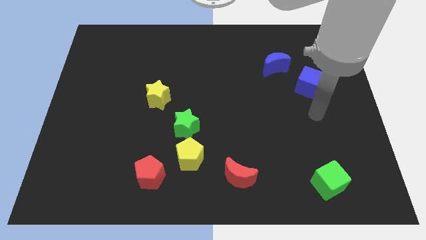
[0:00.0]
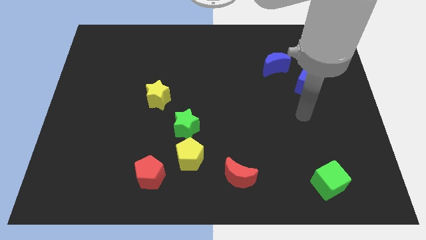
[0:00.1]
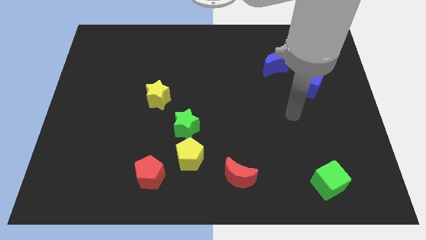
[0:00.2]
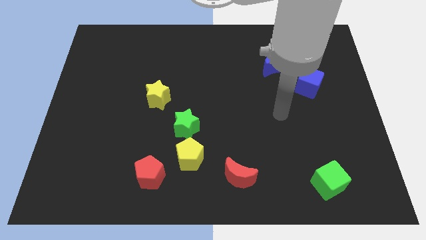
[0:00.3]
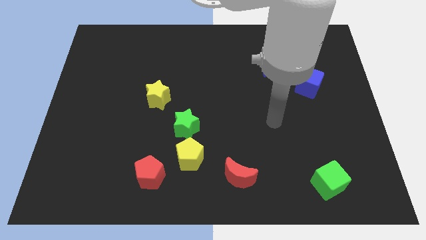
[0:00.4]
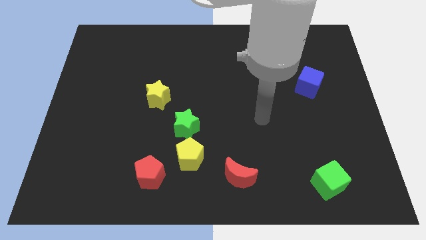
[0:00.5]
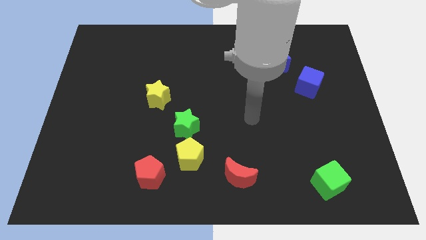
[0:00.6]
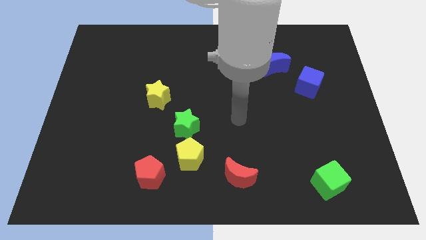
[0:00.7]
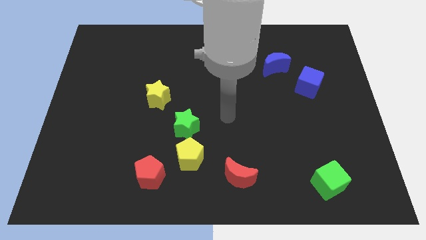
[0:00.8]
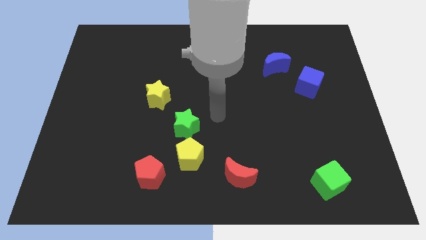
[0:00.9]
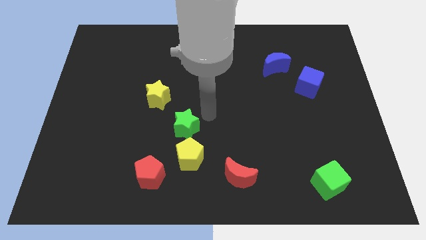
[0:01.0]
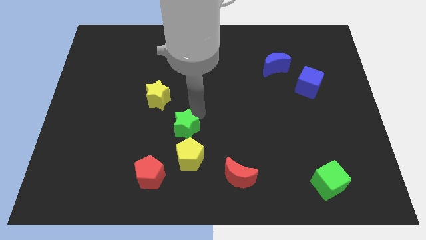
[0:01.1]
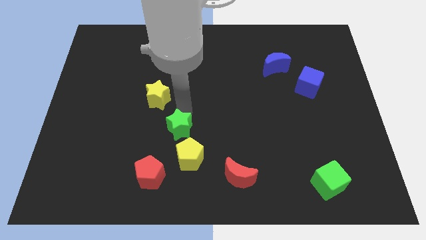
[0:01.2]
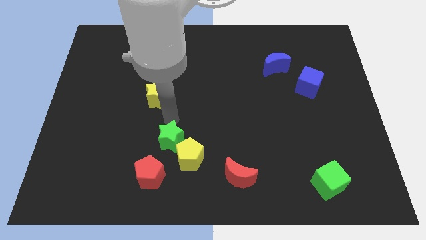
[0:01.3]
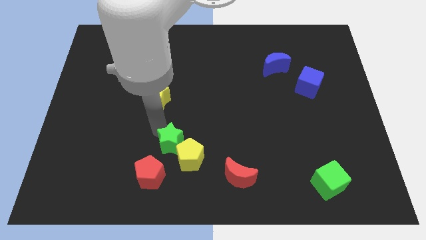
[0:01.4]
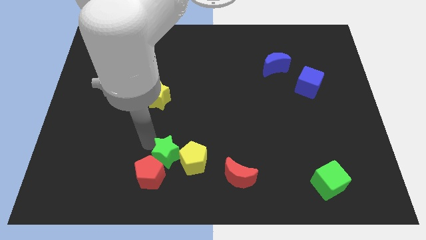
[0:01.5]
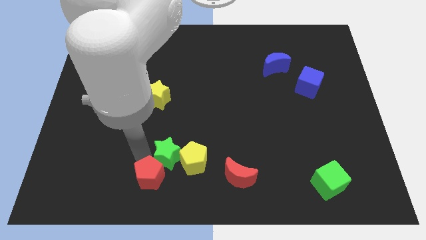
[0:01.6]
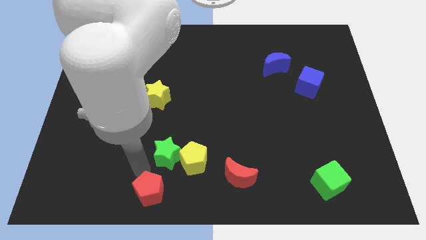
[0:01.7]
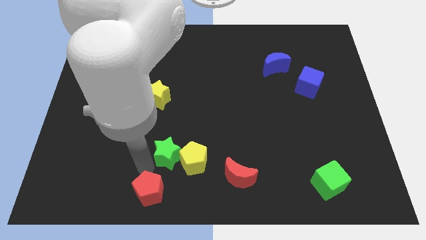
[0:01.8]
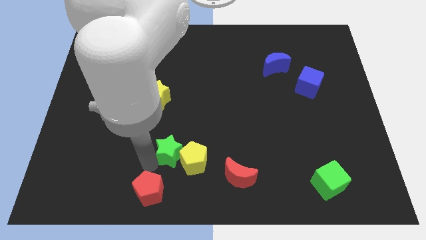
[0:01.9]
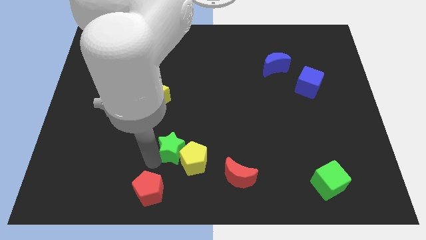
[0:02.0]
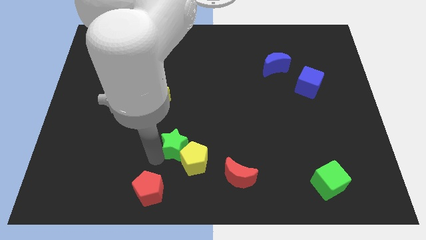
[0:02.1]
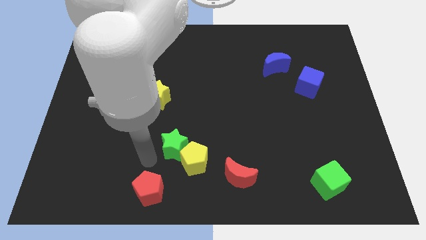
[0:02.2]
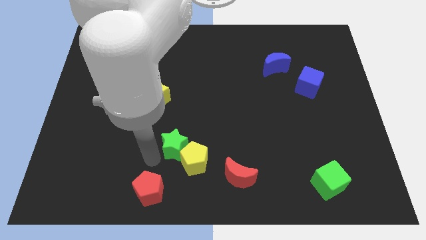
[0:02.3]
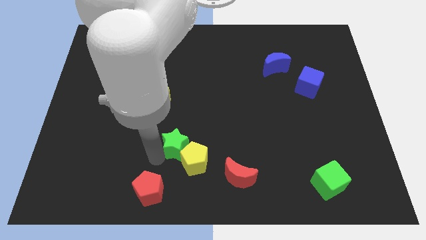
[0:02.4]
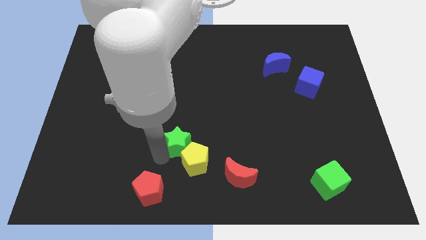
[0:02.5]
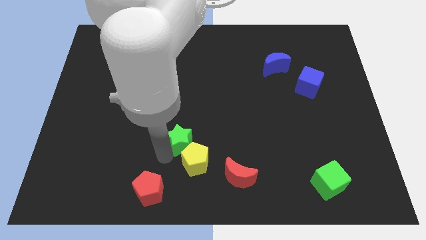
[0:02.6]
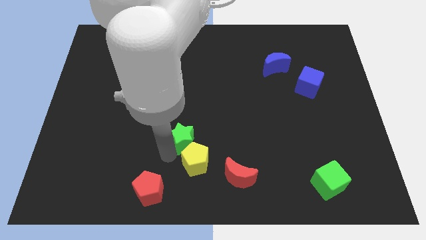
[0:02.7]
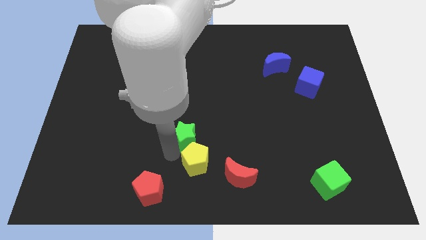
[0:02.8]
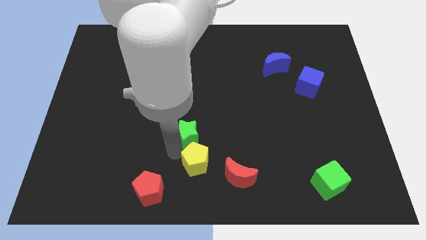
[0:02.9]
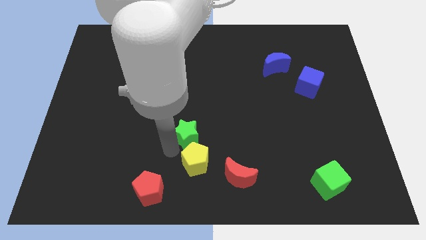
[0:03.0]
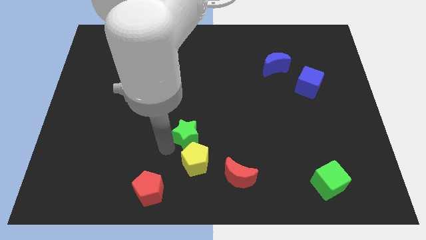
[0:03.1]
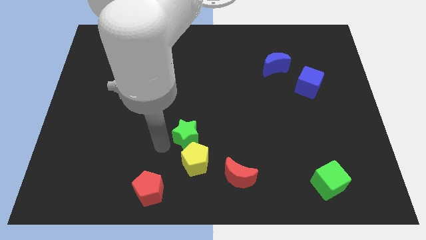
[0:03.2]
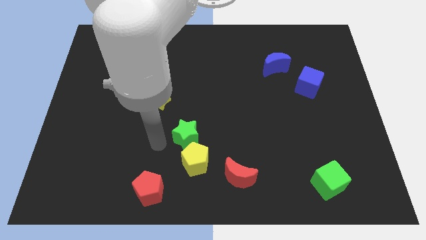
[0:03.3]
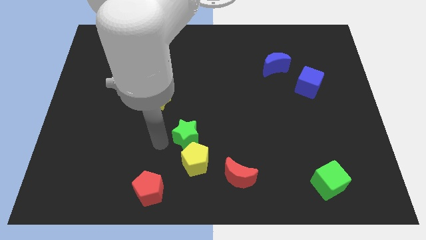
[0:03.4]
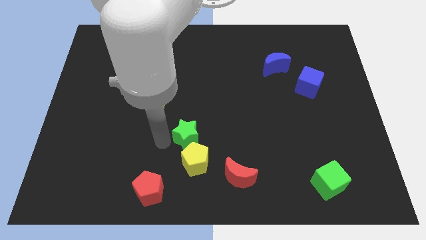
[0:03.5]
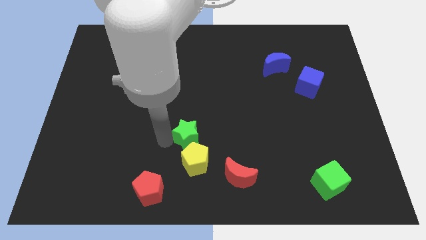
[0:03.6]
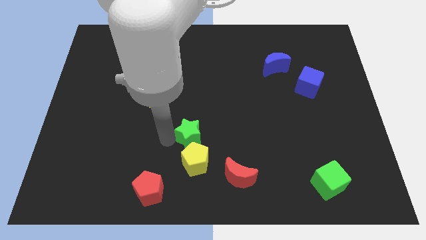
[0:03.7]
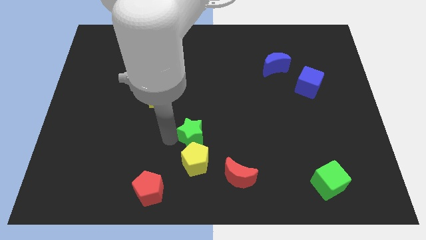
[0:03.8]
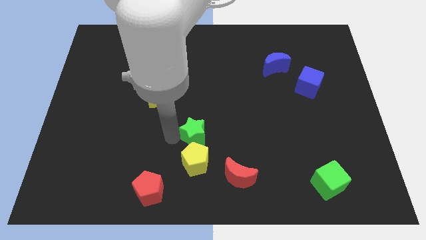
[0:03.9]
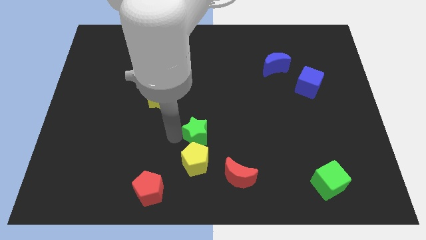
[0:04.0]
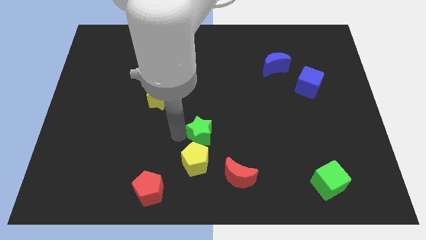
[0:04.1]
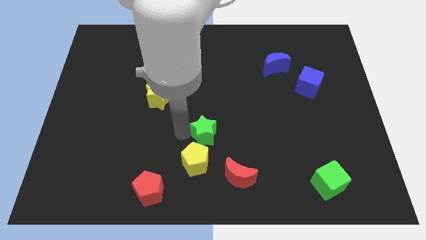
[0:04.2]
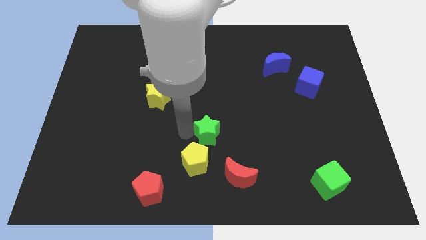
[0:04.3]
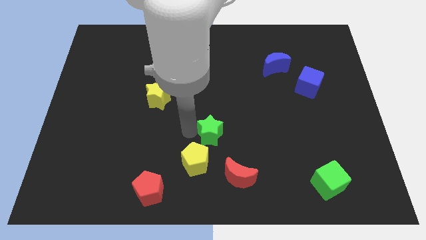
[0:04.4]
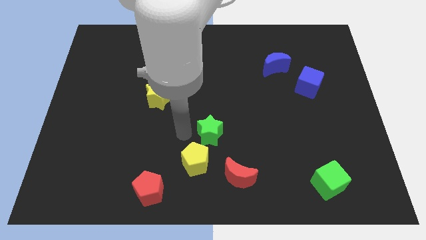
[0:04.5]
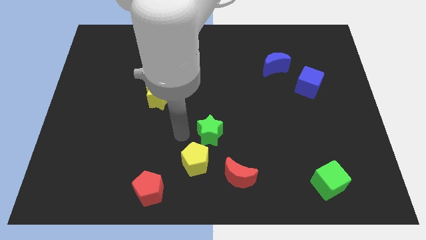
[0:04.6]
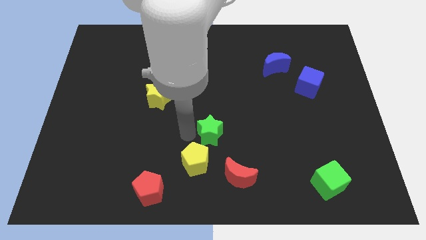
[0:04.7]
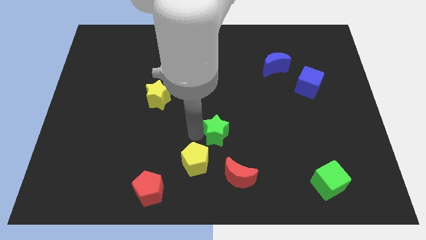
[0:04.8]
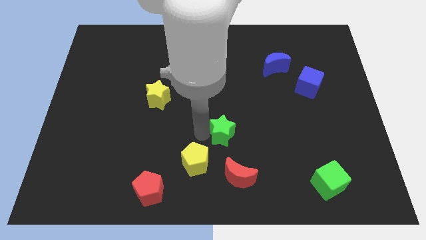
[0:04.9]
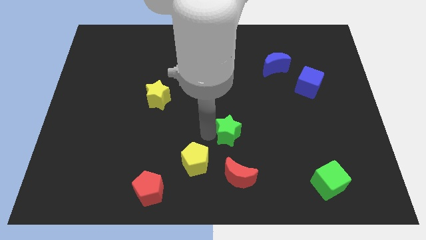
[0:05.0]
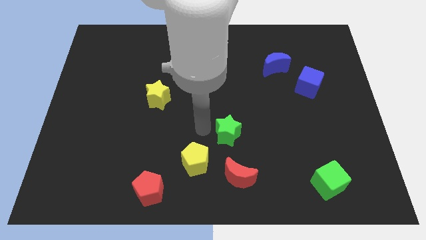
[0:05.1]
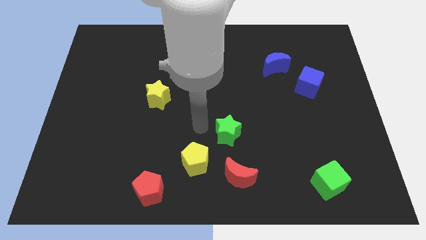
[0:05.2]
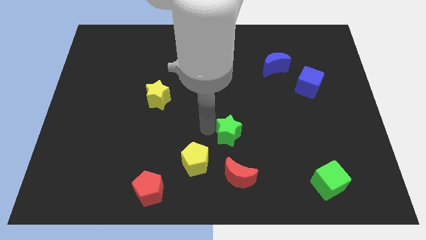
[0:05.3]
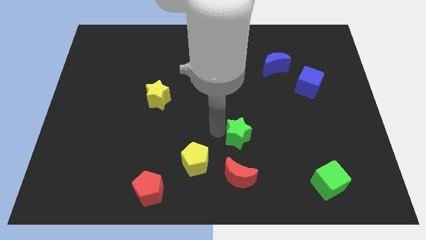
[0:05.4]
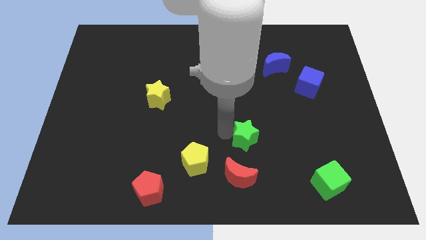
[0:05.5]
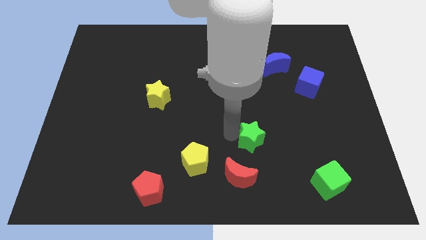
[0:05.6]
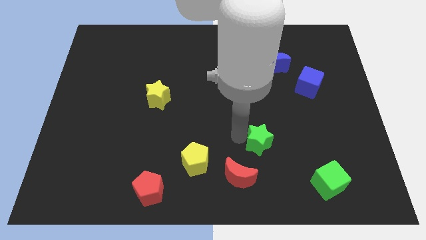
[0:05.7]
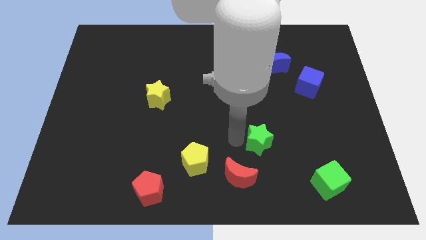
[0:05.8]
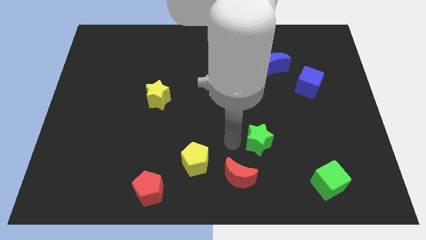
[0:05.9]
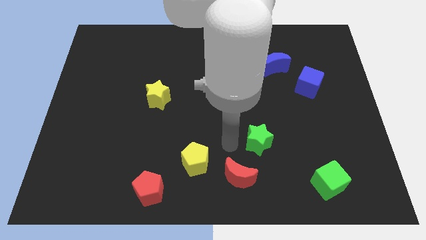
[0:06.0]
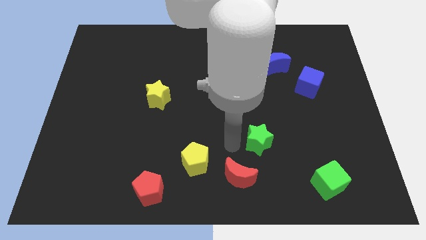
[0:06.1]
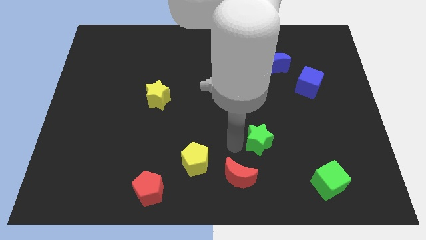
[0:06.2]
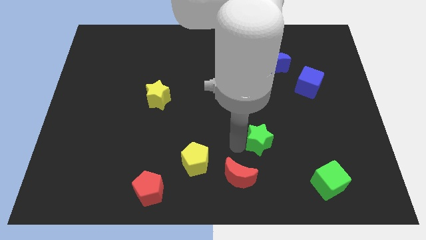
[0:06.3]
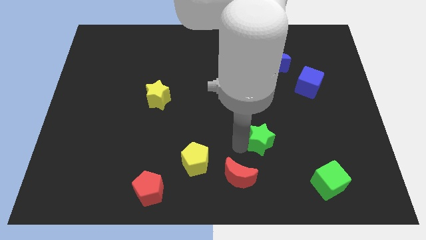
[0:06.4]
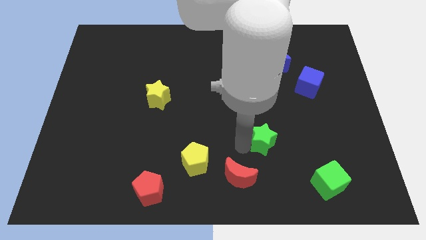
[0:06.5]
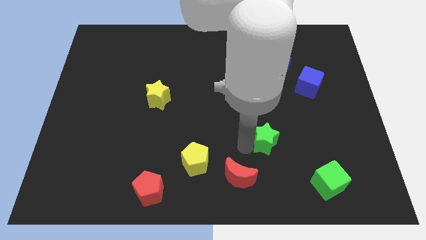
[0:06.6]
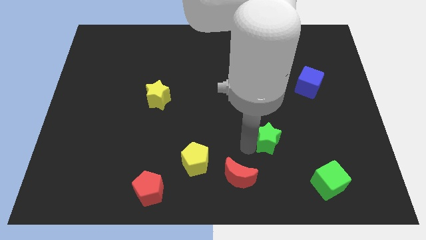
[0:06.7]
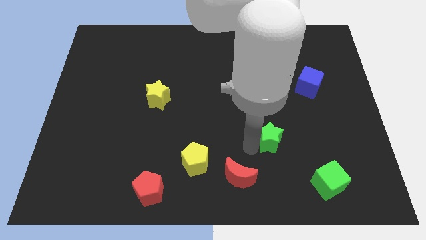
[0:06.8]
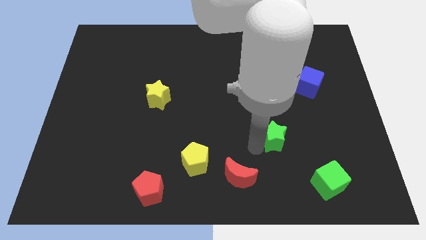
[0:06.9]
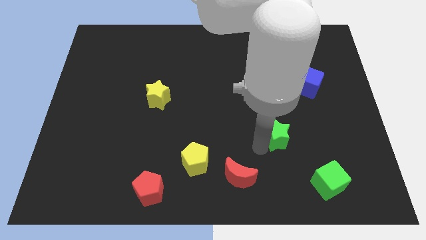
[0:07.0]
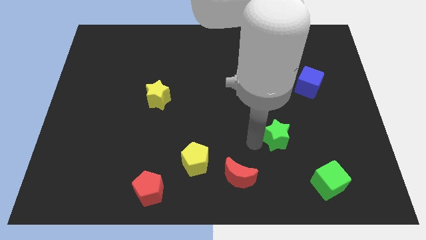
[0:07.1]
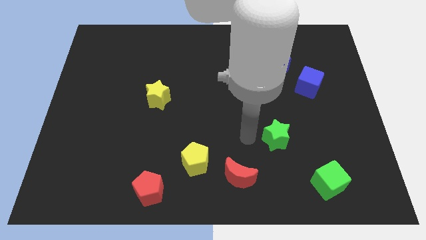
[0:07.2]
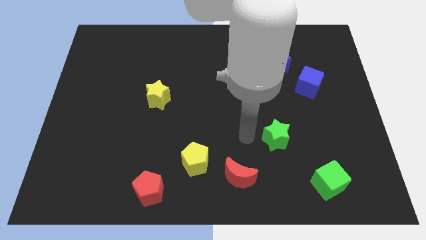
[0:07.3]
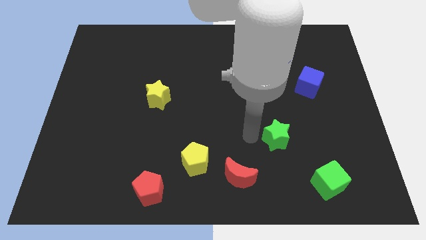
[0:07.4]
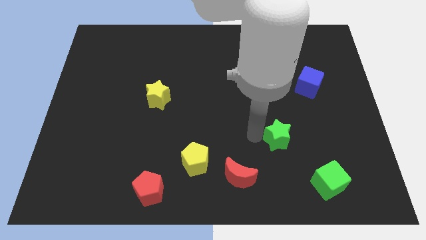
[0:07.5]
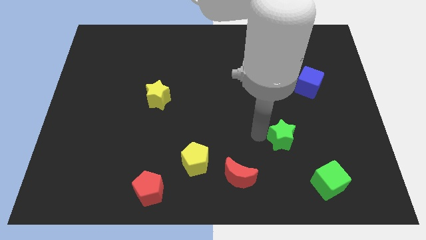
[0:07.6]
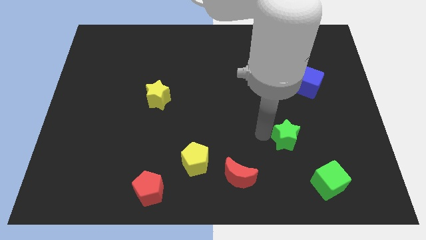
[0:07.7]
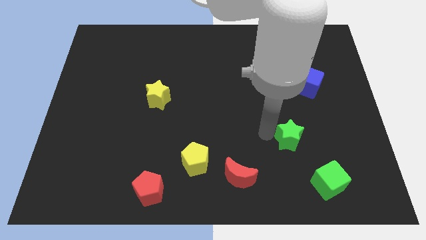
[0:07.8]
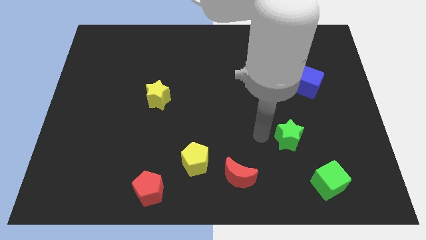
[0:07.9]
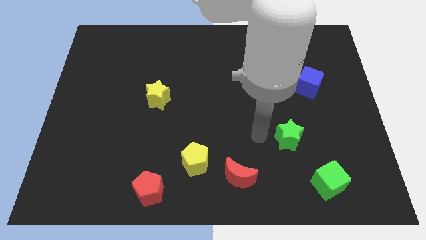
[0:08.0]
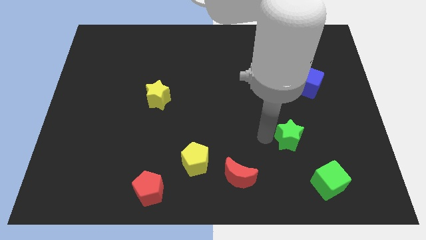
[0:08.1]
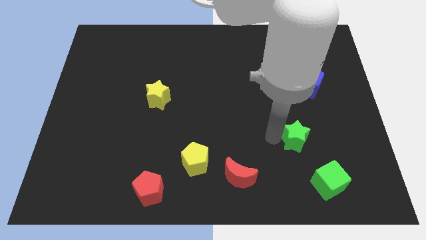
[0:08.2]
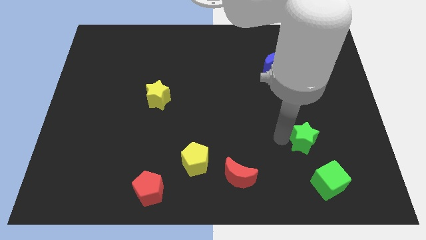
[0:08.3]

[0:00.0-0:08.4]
slide the green star above the green cube
